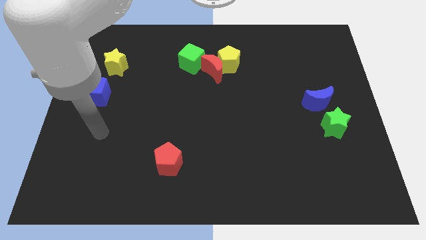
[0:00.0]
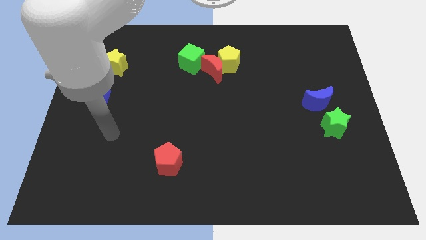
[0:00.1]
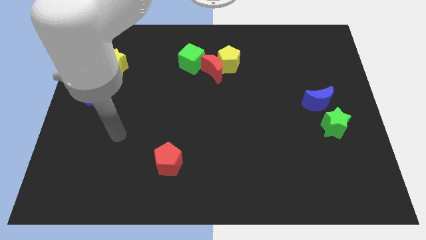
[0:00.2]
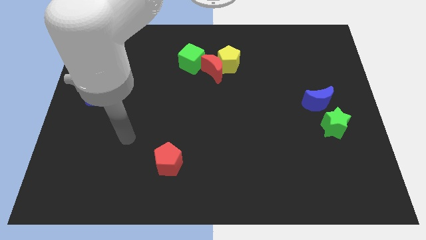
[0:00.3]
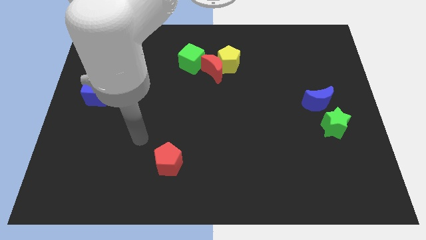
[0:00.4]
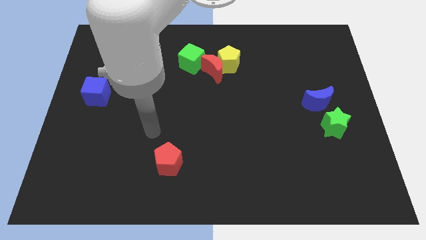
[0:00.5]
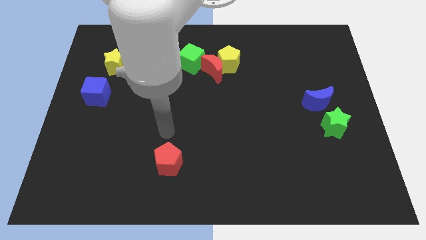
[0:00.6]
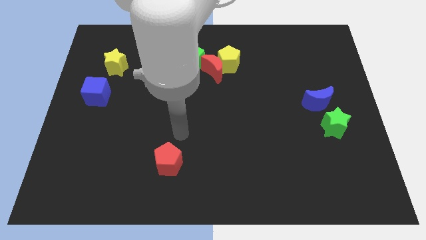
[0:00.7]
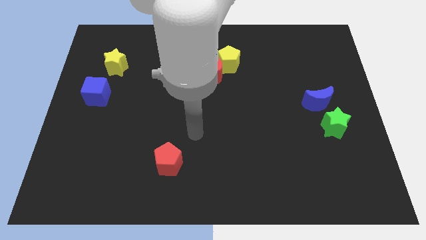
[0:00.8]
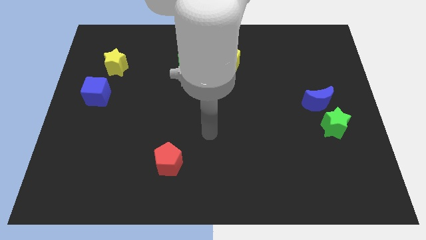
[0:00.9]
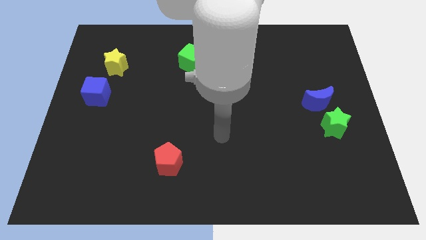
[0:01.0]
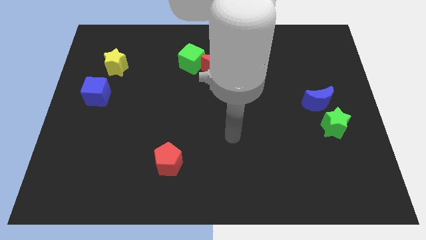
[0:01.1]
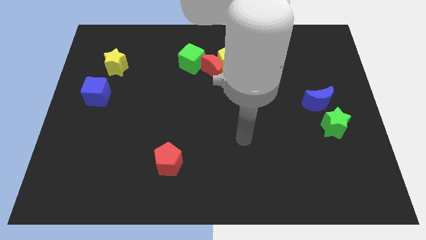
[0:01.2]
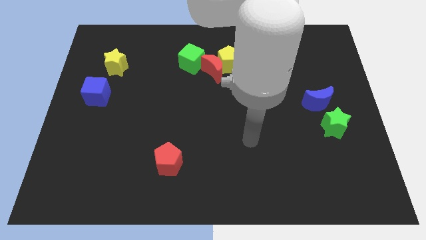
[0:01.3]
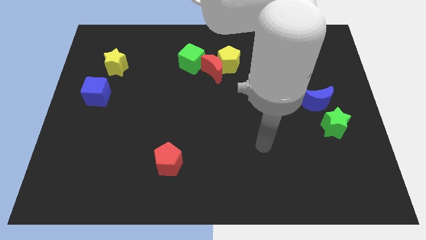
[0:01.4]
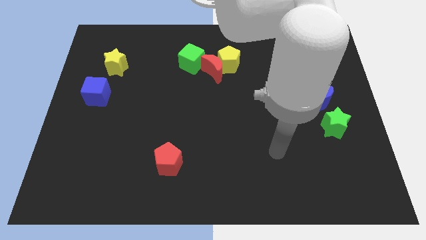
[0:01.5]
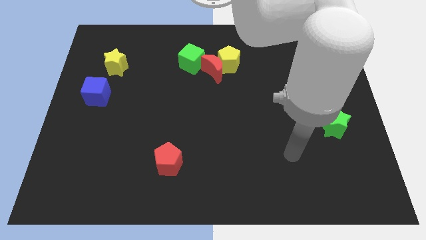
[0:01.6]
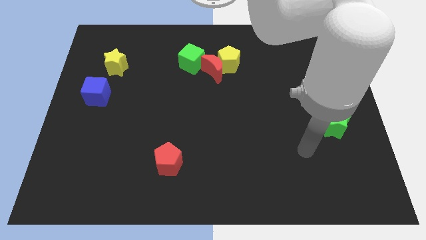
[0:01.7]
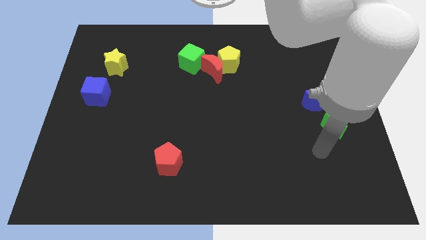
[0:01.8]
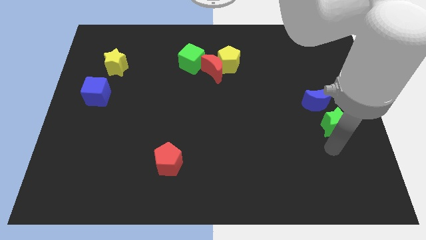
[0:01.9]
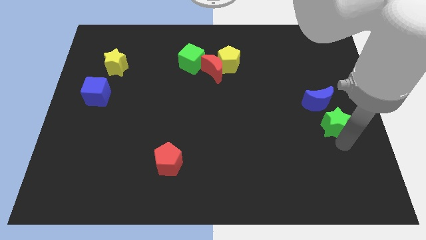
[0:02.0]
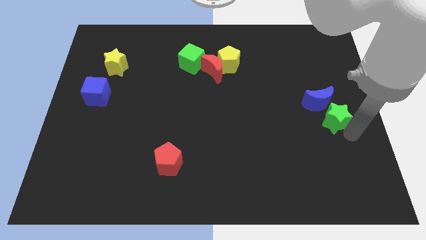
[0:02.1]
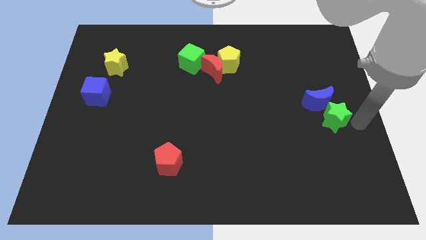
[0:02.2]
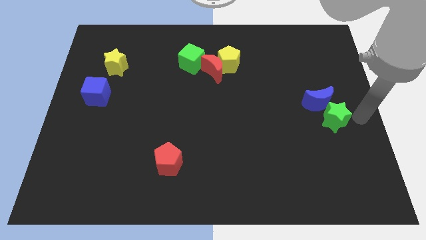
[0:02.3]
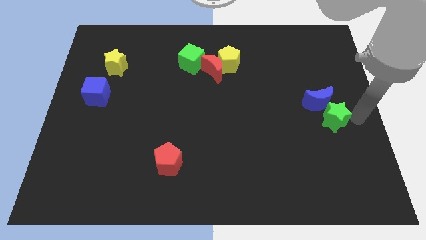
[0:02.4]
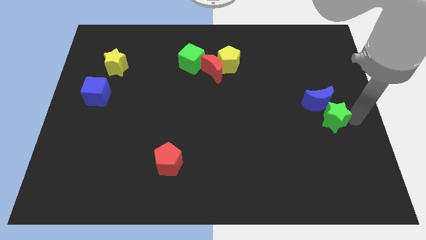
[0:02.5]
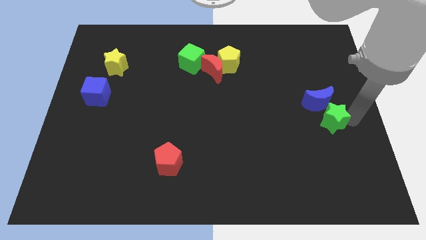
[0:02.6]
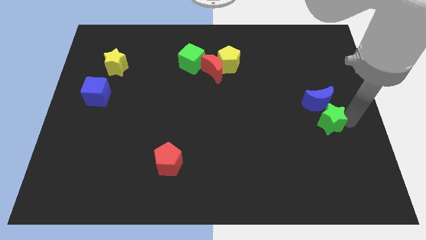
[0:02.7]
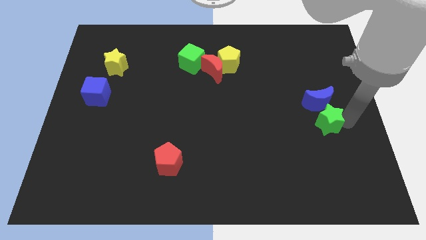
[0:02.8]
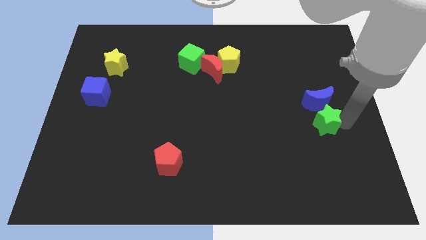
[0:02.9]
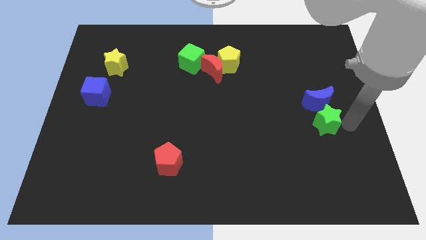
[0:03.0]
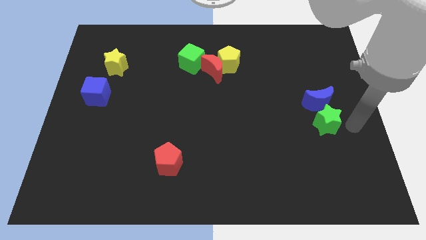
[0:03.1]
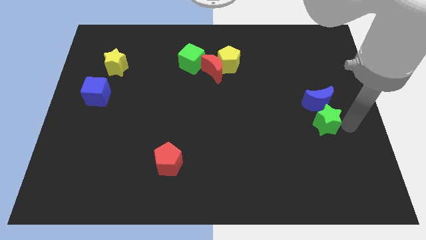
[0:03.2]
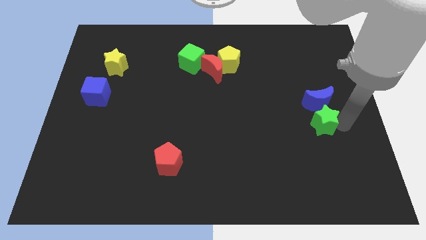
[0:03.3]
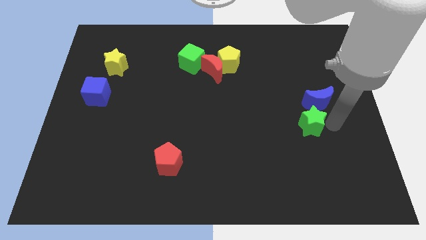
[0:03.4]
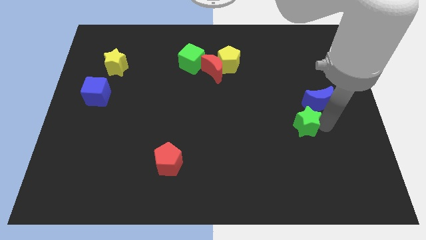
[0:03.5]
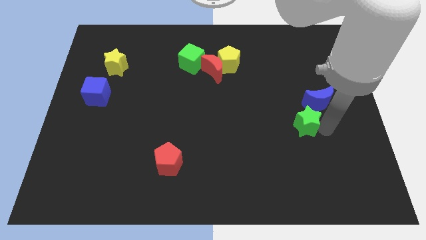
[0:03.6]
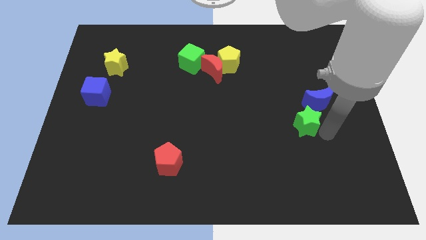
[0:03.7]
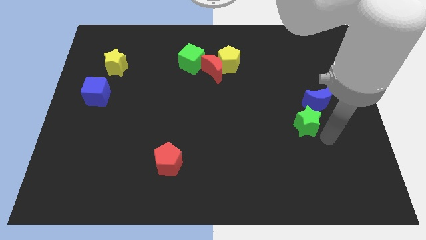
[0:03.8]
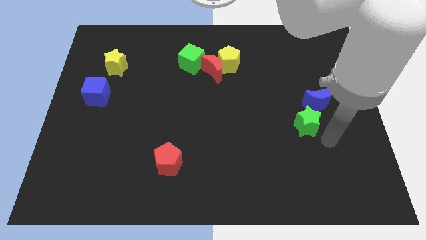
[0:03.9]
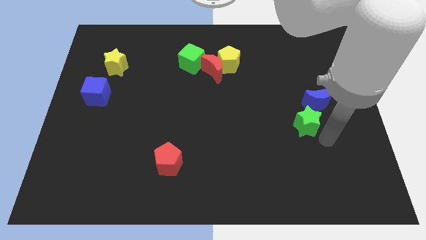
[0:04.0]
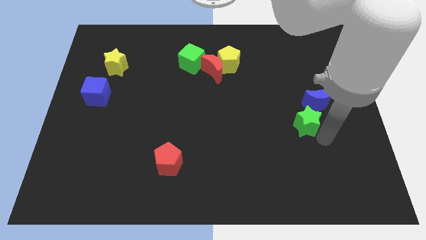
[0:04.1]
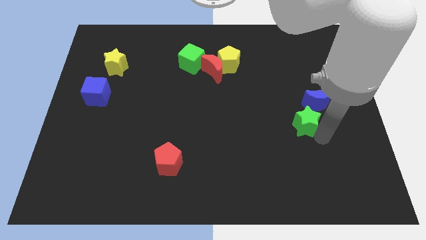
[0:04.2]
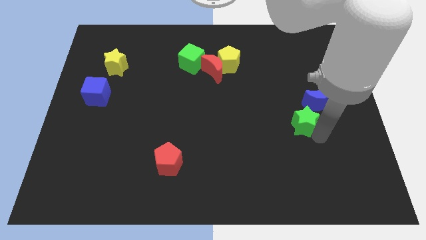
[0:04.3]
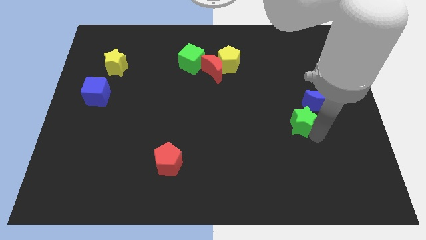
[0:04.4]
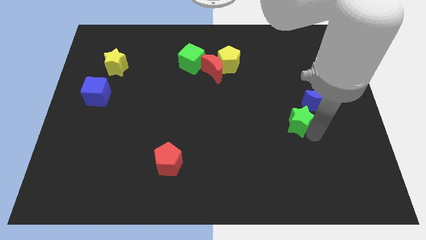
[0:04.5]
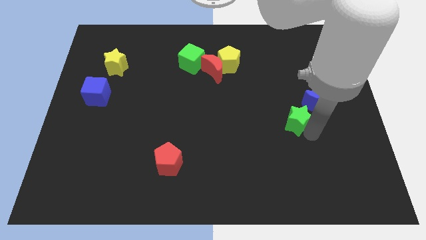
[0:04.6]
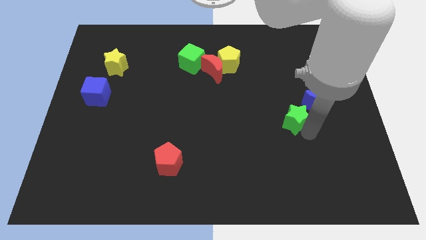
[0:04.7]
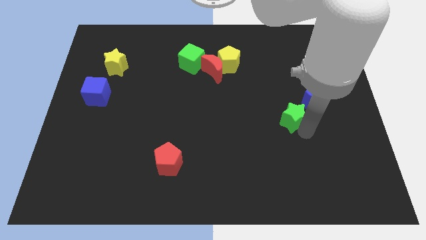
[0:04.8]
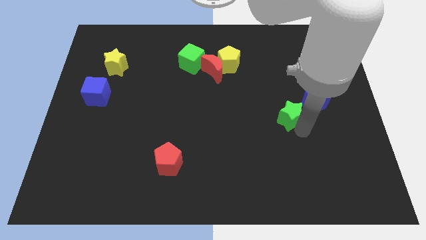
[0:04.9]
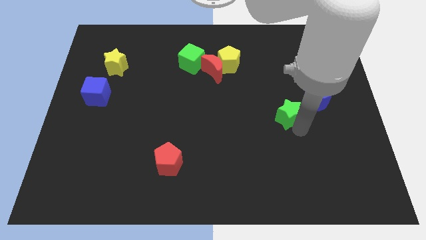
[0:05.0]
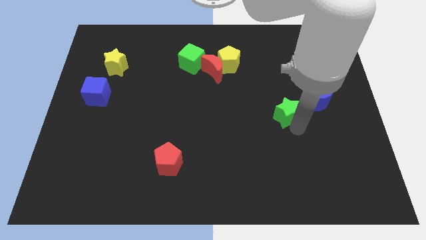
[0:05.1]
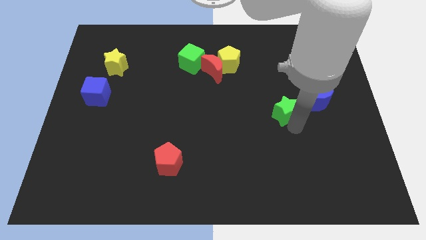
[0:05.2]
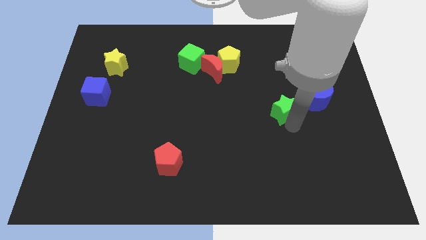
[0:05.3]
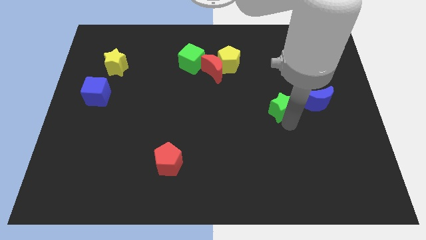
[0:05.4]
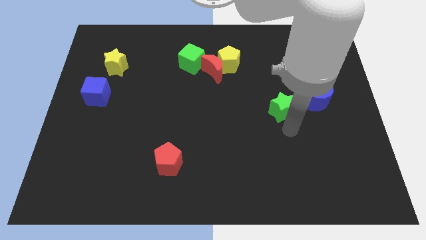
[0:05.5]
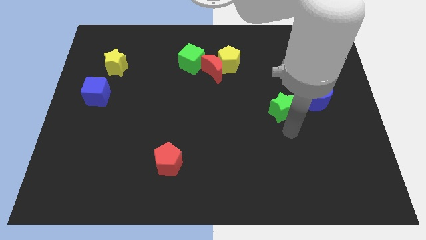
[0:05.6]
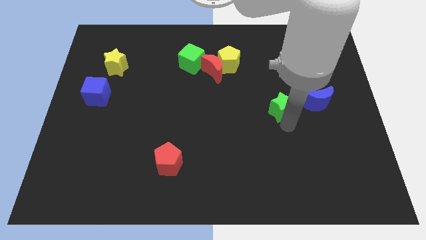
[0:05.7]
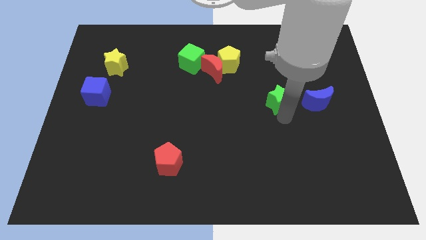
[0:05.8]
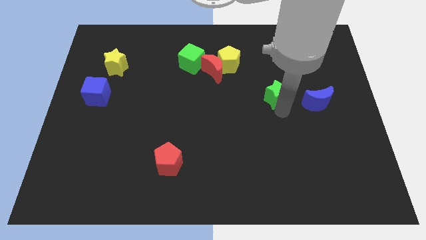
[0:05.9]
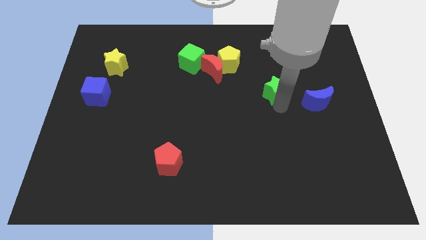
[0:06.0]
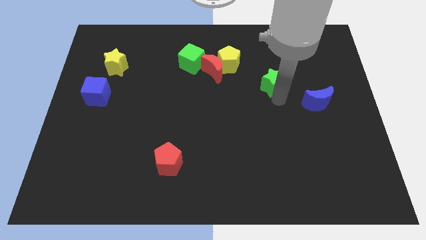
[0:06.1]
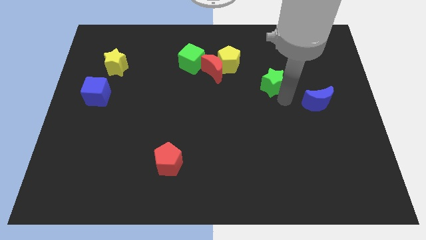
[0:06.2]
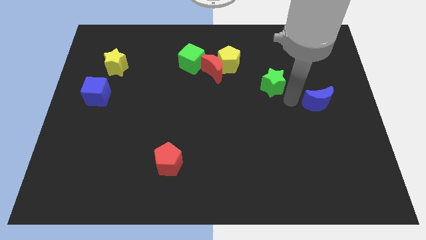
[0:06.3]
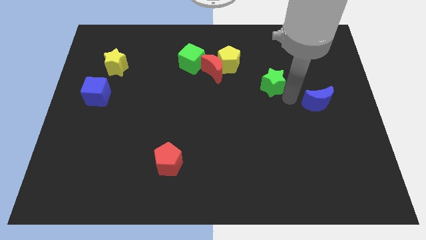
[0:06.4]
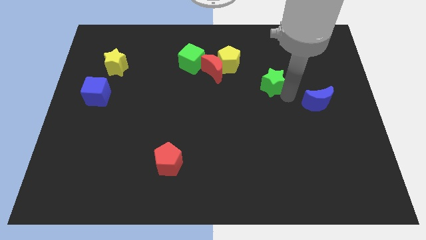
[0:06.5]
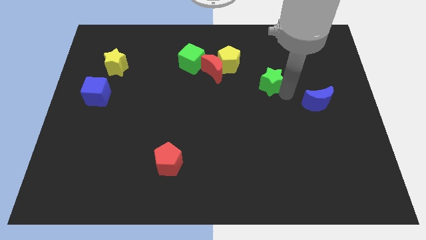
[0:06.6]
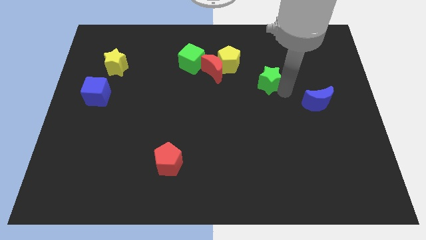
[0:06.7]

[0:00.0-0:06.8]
slide the green star right of the red moon

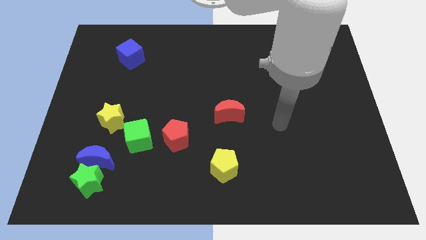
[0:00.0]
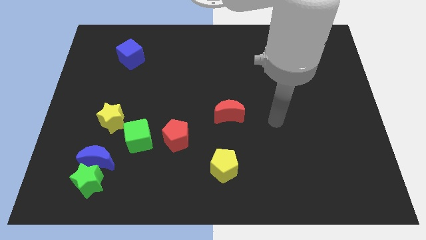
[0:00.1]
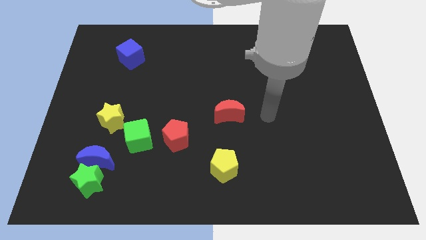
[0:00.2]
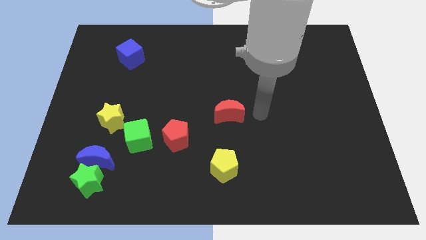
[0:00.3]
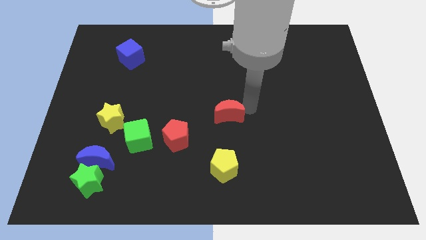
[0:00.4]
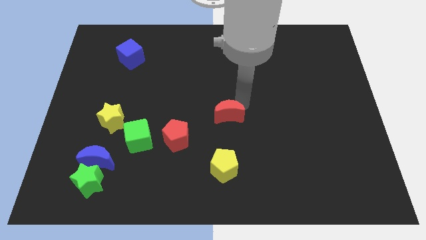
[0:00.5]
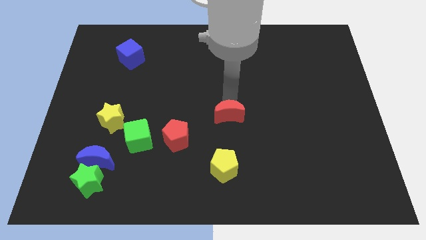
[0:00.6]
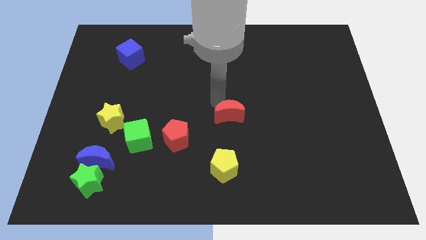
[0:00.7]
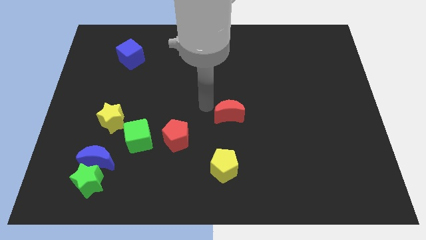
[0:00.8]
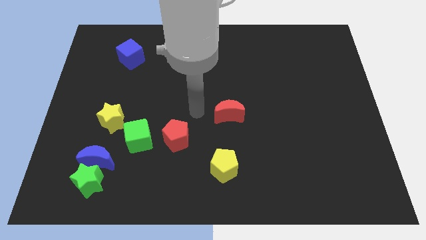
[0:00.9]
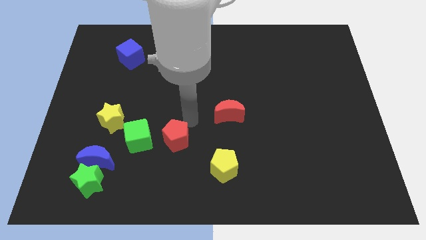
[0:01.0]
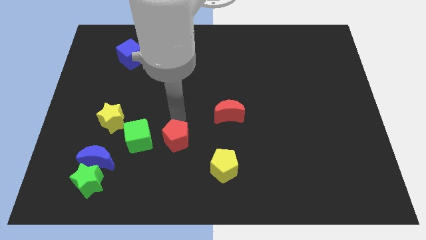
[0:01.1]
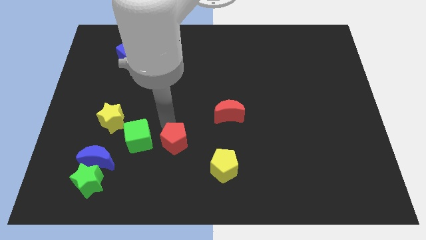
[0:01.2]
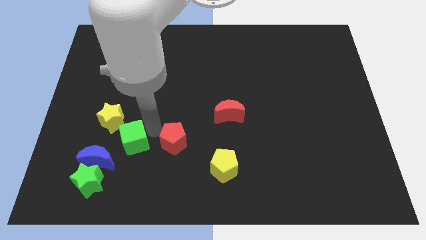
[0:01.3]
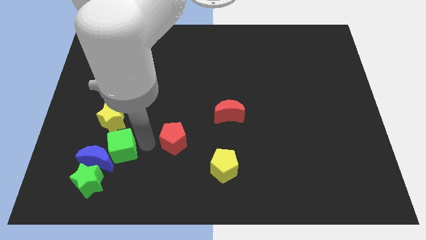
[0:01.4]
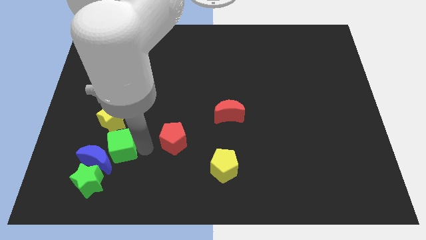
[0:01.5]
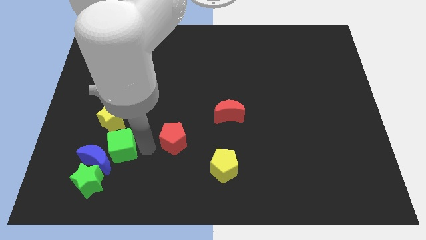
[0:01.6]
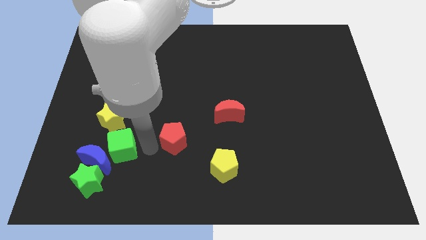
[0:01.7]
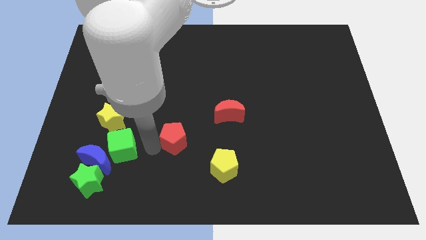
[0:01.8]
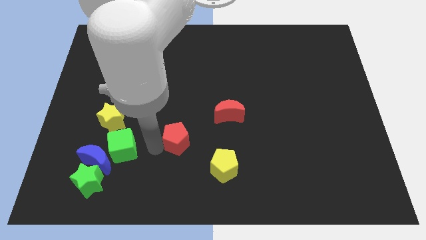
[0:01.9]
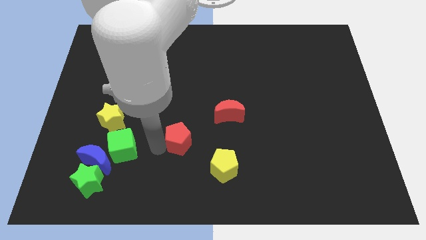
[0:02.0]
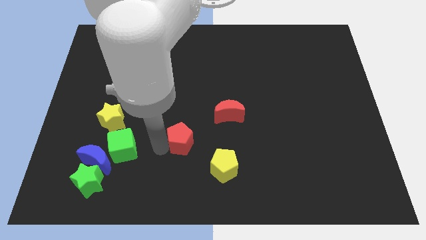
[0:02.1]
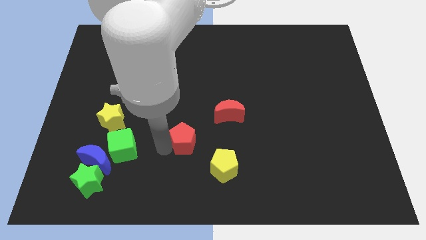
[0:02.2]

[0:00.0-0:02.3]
push the red pentagon to the bottom left of the red moon
